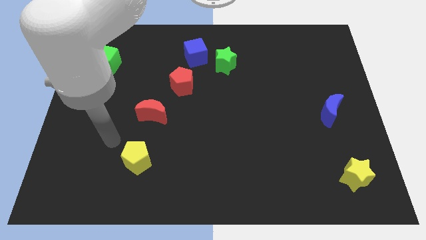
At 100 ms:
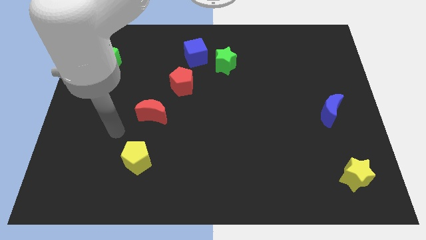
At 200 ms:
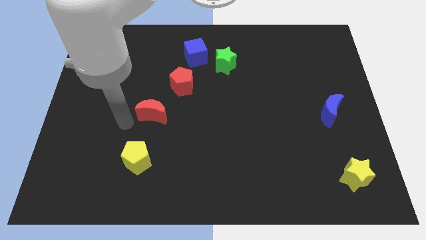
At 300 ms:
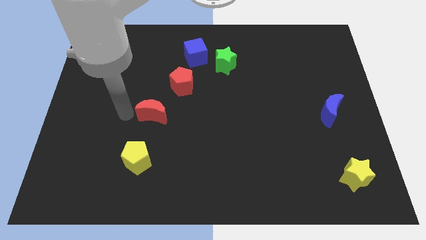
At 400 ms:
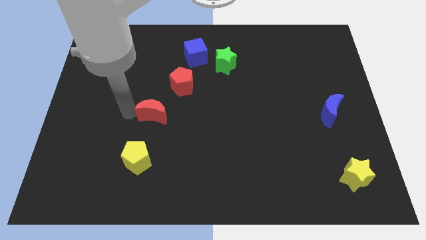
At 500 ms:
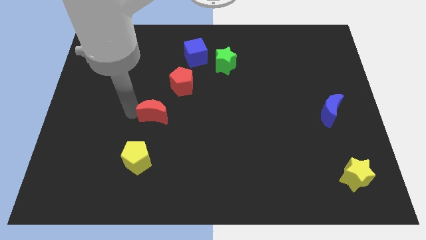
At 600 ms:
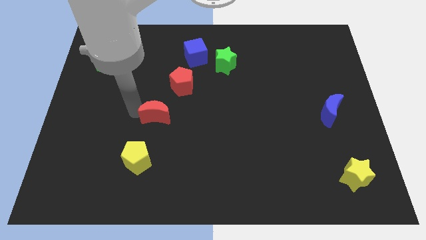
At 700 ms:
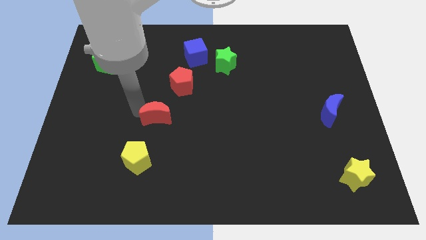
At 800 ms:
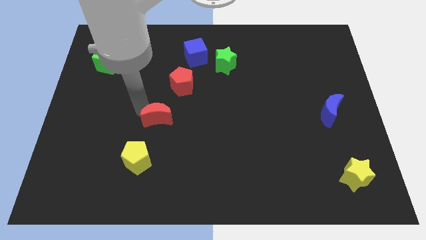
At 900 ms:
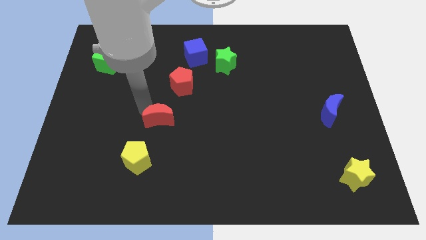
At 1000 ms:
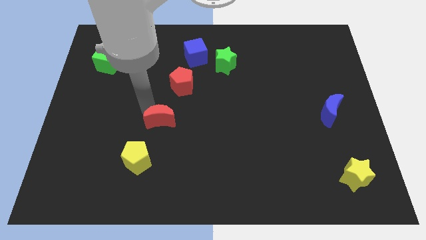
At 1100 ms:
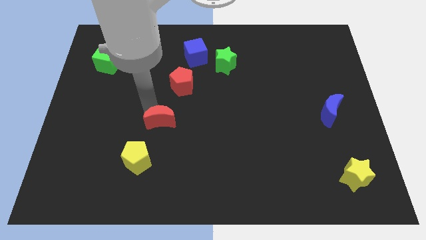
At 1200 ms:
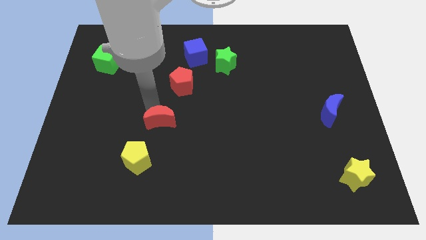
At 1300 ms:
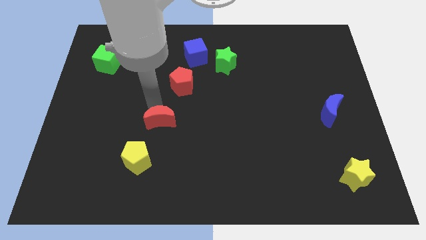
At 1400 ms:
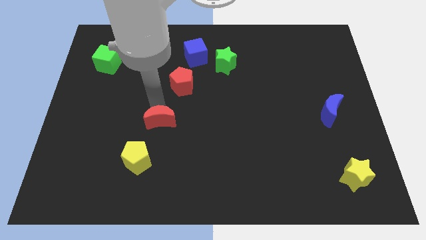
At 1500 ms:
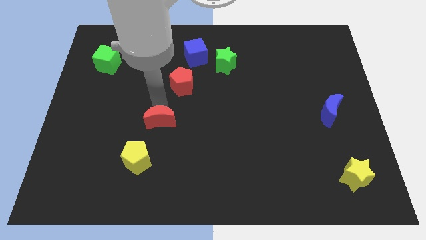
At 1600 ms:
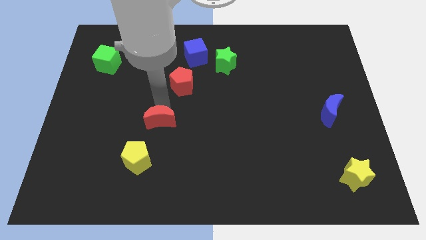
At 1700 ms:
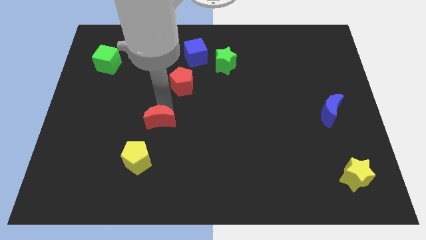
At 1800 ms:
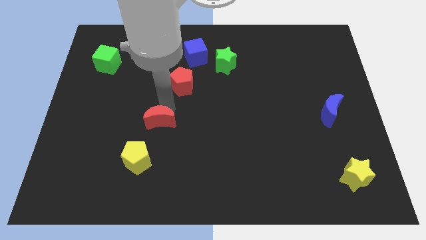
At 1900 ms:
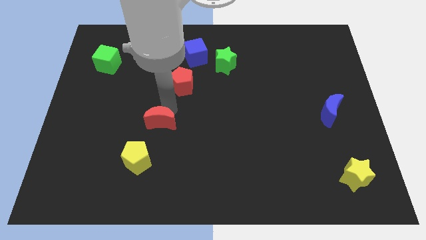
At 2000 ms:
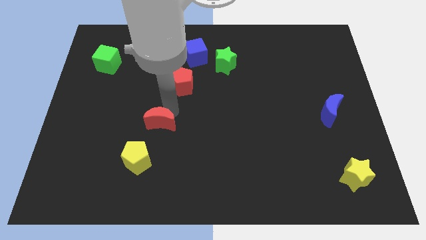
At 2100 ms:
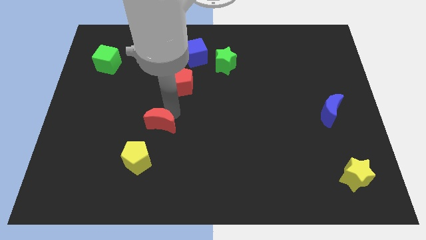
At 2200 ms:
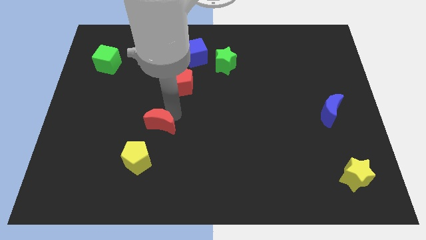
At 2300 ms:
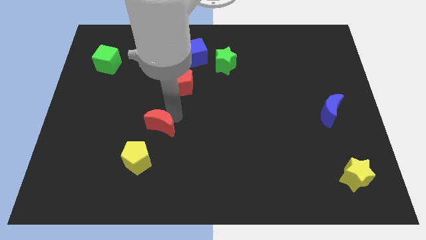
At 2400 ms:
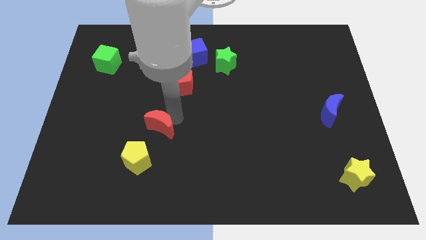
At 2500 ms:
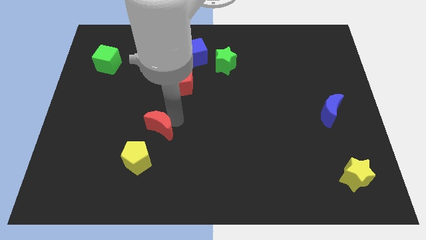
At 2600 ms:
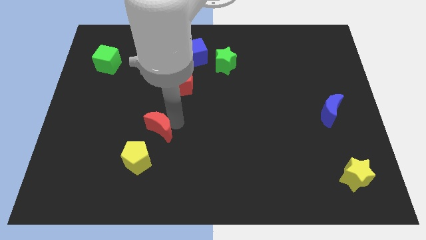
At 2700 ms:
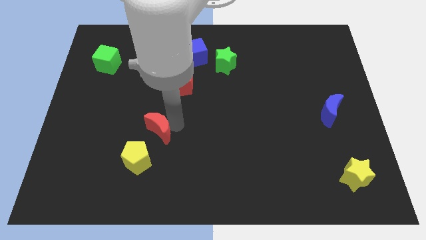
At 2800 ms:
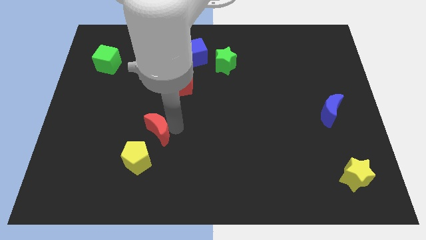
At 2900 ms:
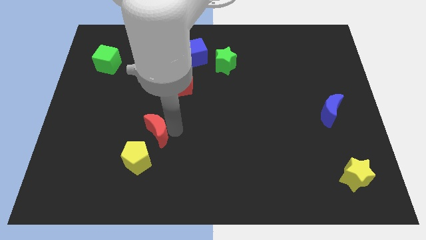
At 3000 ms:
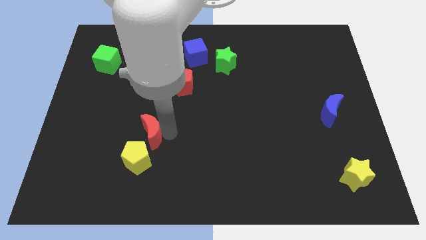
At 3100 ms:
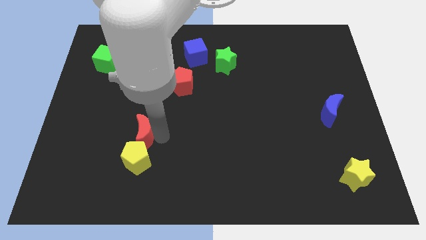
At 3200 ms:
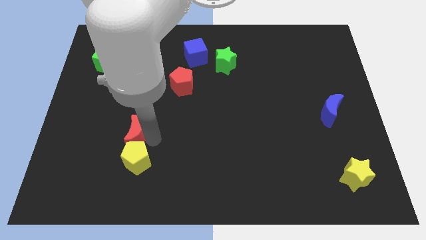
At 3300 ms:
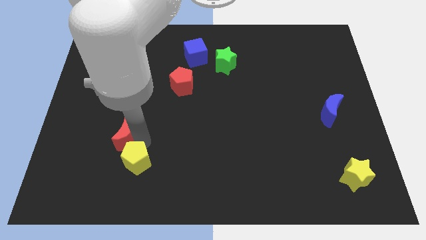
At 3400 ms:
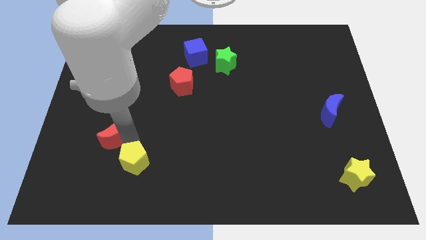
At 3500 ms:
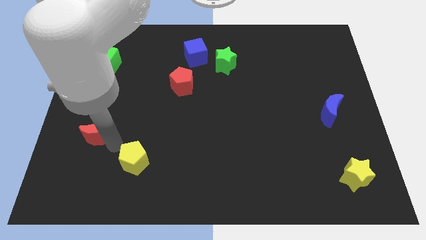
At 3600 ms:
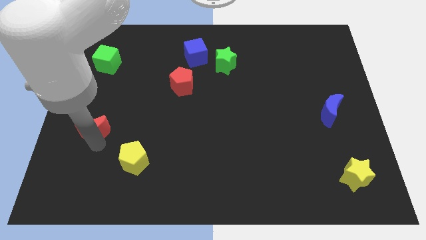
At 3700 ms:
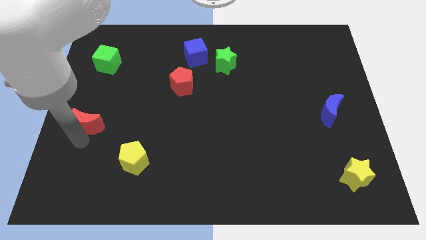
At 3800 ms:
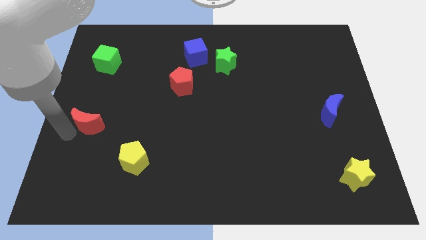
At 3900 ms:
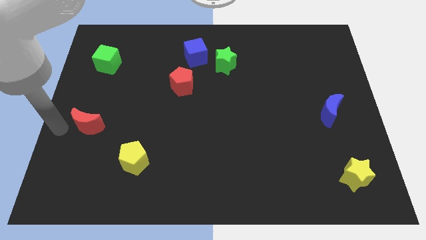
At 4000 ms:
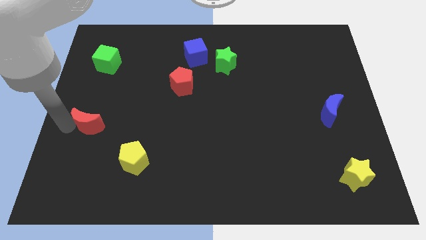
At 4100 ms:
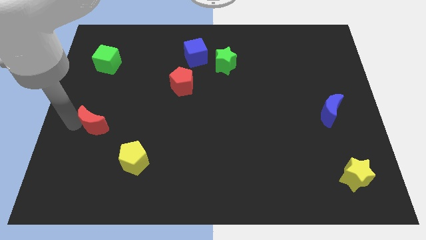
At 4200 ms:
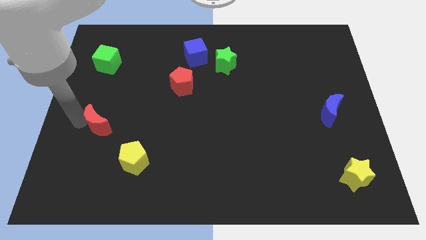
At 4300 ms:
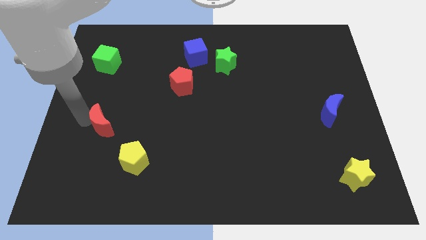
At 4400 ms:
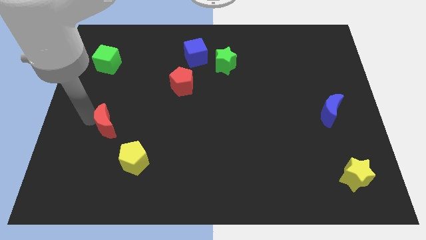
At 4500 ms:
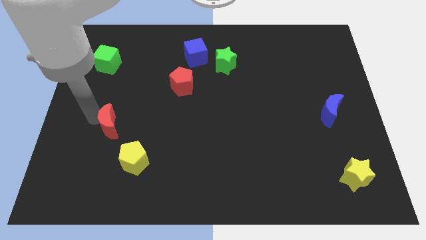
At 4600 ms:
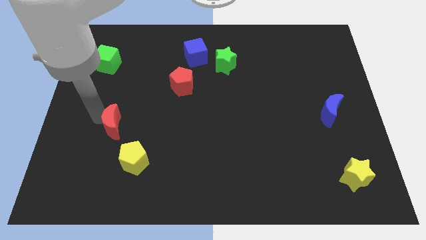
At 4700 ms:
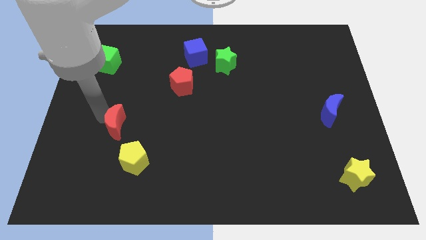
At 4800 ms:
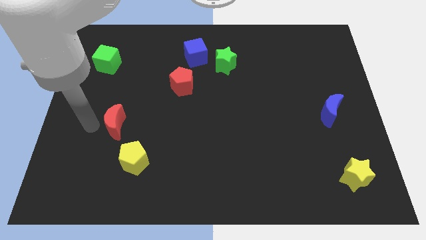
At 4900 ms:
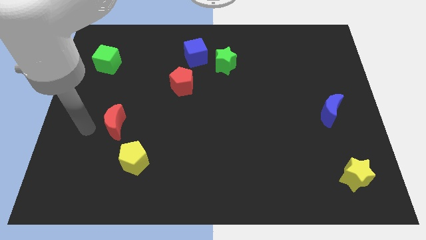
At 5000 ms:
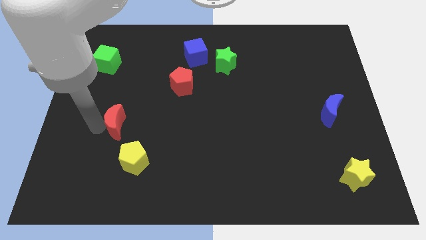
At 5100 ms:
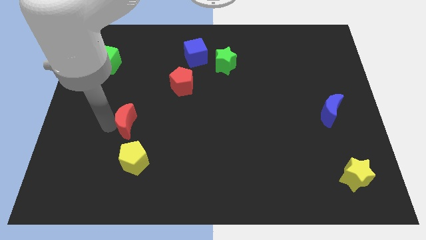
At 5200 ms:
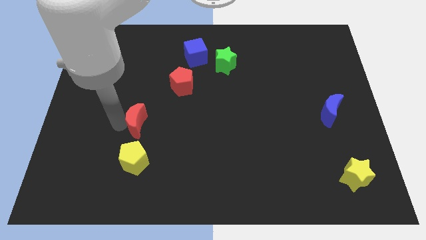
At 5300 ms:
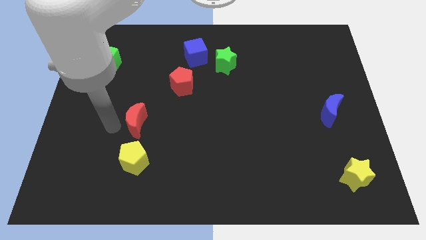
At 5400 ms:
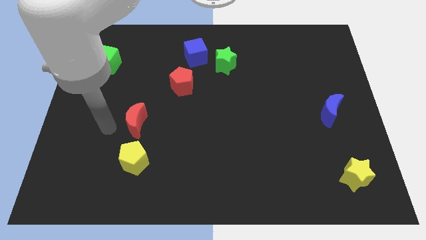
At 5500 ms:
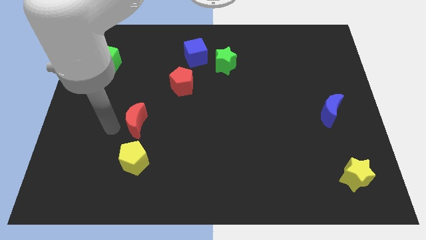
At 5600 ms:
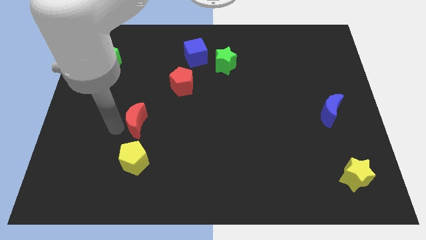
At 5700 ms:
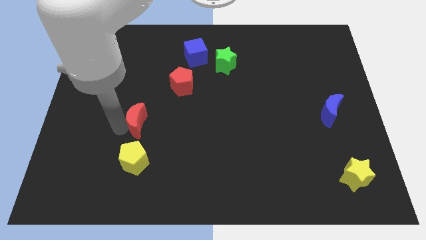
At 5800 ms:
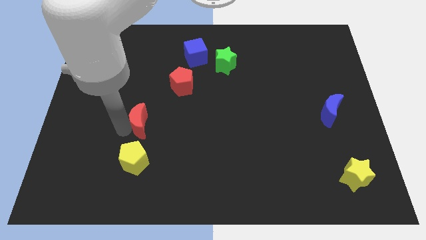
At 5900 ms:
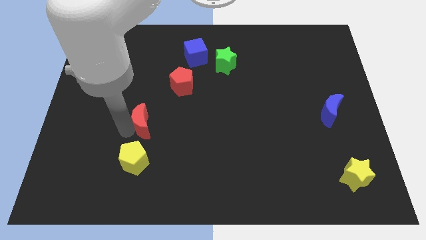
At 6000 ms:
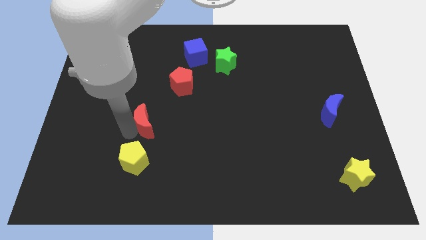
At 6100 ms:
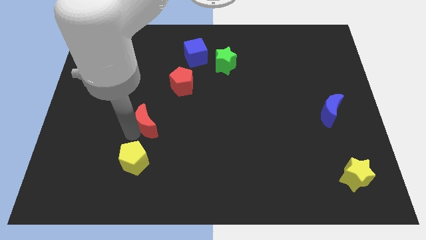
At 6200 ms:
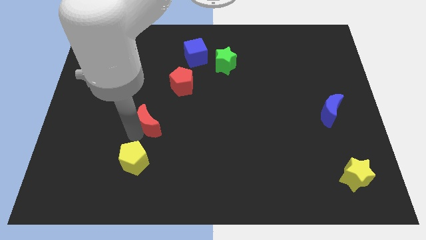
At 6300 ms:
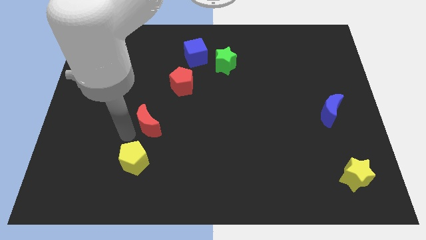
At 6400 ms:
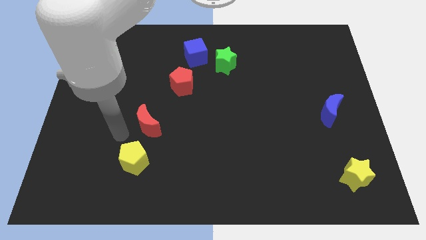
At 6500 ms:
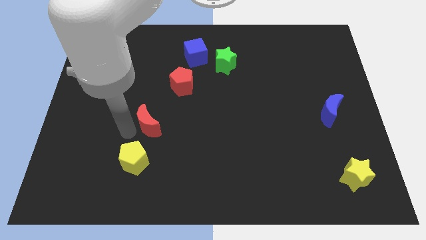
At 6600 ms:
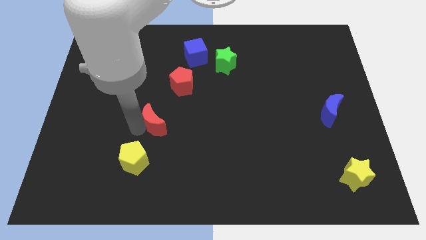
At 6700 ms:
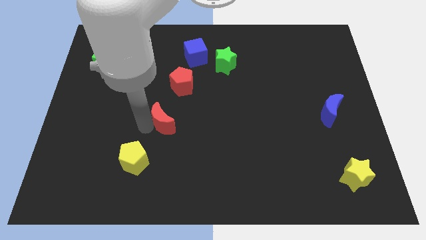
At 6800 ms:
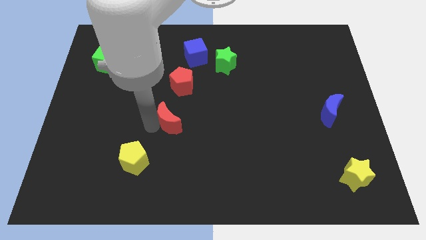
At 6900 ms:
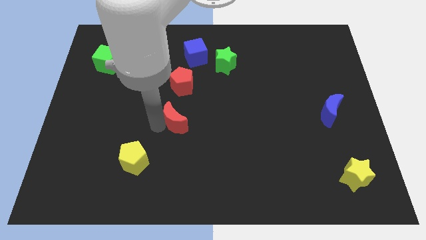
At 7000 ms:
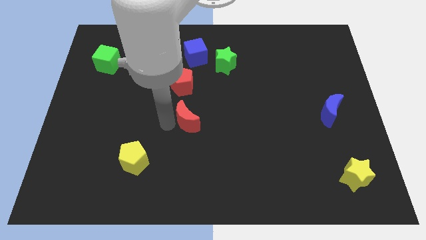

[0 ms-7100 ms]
push the red moon to the right a bit

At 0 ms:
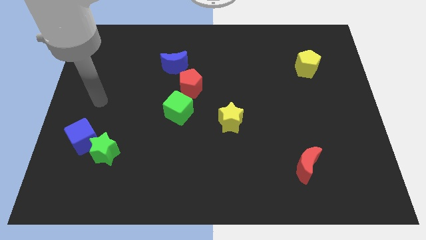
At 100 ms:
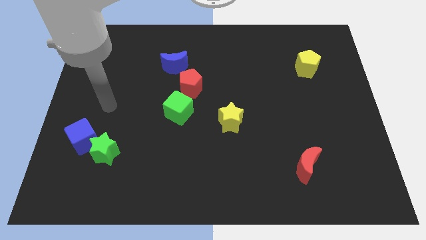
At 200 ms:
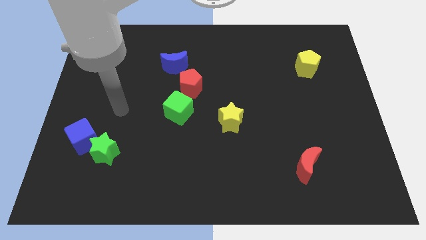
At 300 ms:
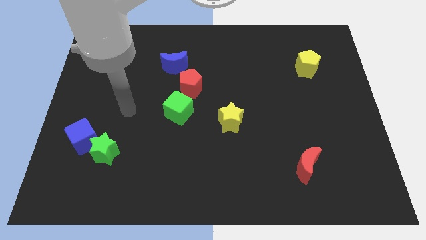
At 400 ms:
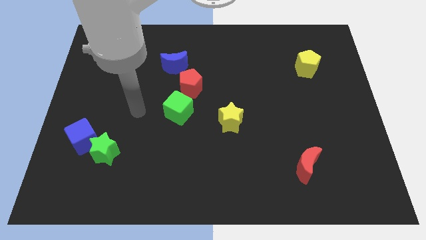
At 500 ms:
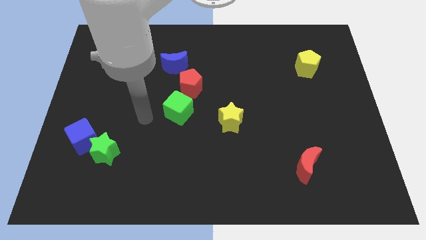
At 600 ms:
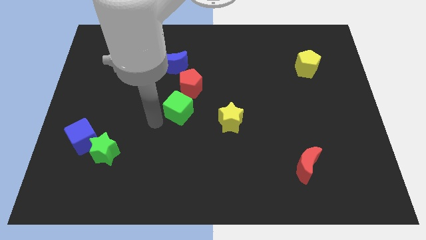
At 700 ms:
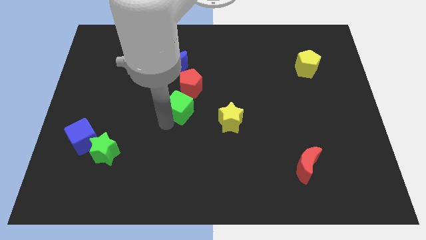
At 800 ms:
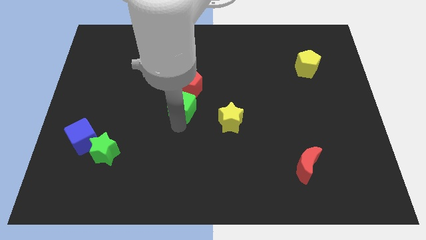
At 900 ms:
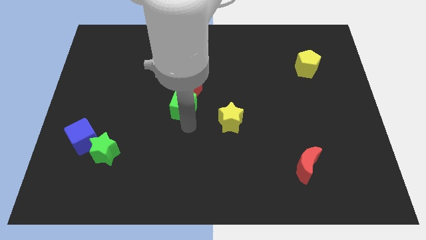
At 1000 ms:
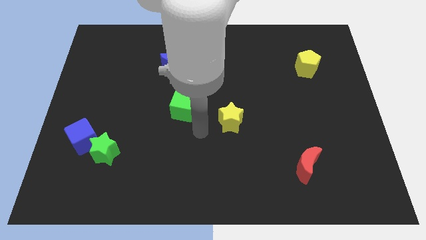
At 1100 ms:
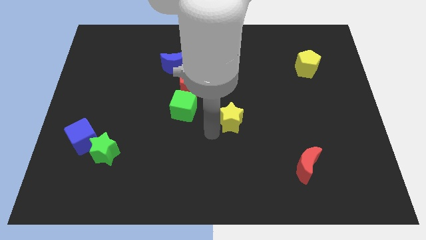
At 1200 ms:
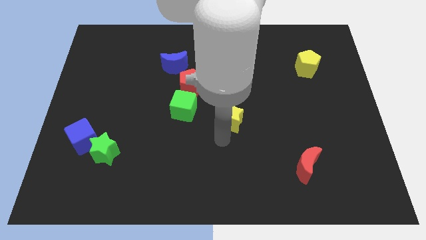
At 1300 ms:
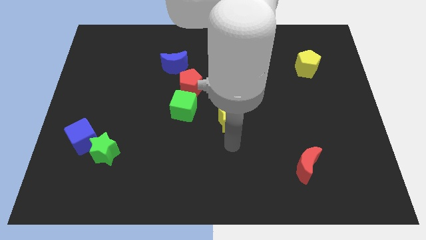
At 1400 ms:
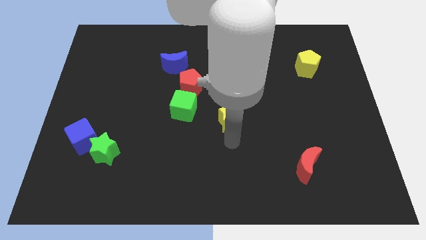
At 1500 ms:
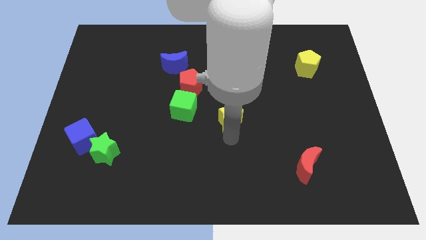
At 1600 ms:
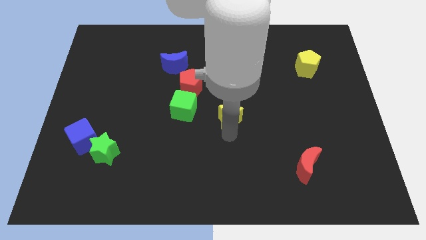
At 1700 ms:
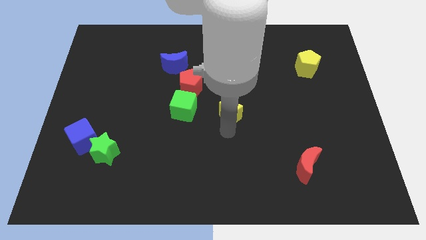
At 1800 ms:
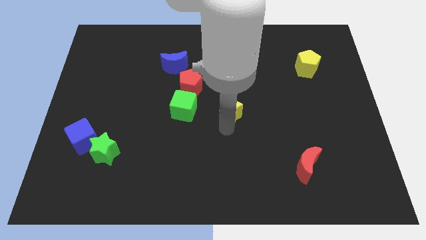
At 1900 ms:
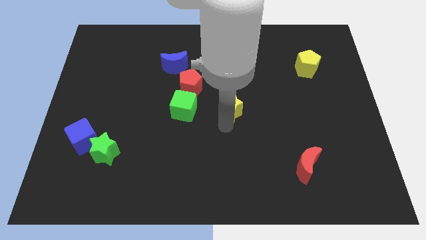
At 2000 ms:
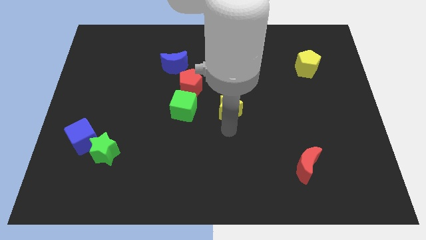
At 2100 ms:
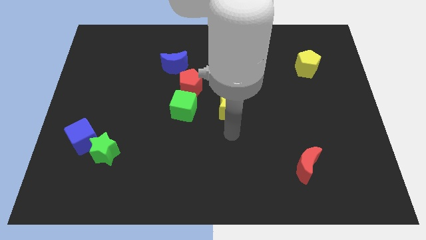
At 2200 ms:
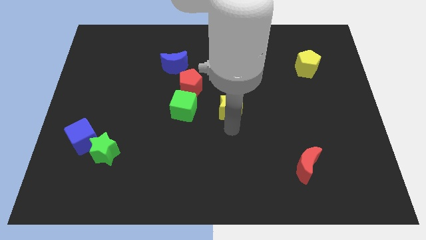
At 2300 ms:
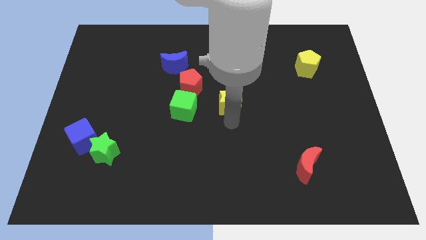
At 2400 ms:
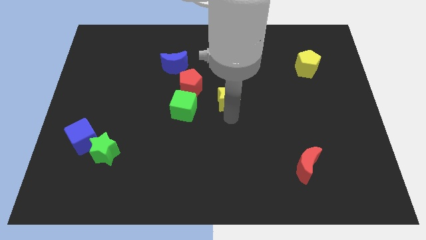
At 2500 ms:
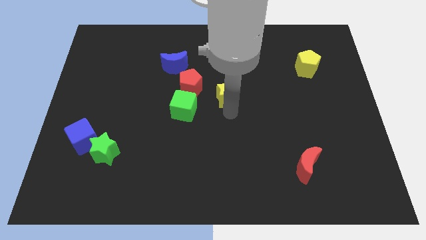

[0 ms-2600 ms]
slide the yellow star upwards somewhat
